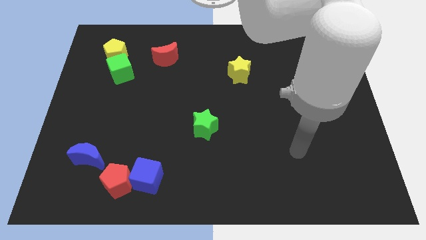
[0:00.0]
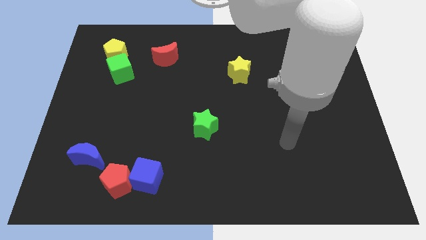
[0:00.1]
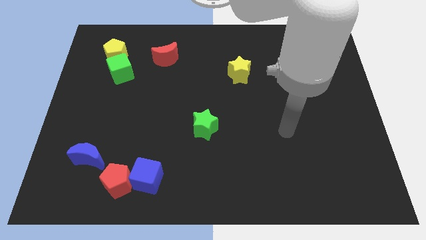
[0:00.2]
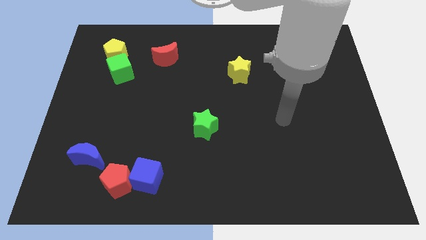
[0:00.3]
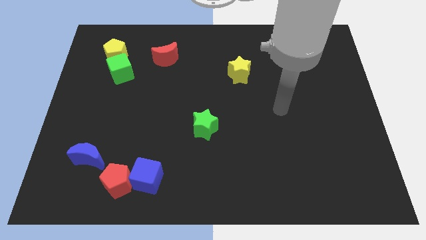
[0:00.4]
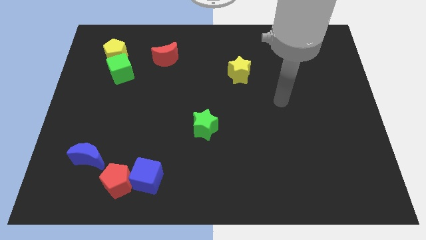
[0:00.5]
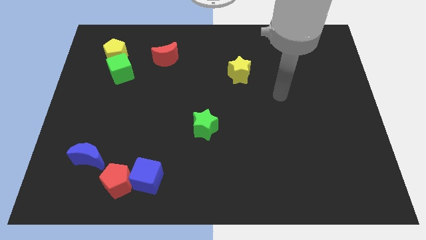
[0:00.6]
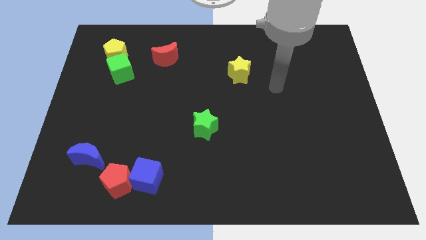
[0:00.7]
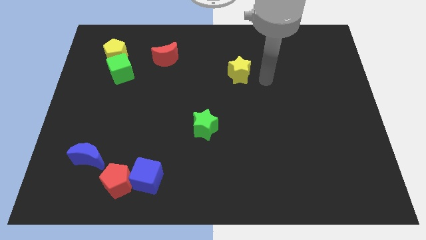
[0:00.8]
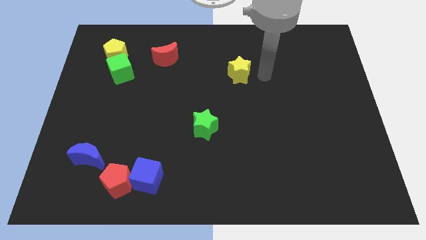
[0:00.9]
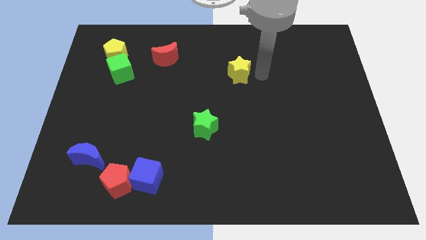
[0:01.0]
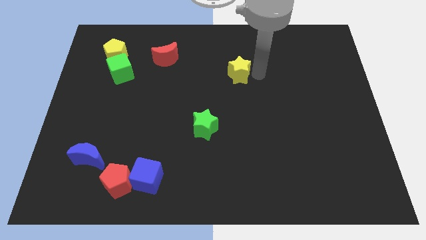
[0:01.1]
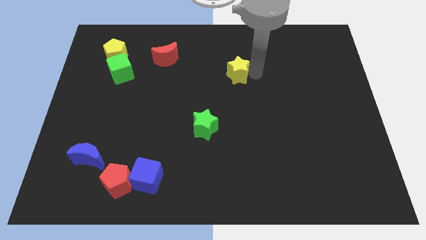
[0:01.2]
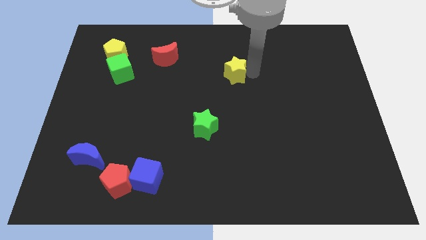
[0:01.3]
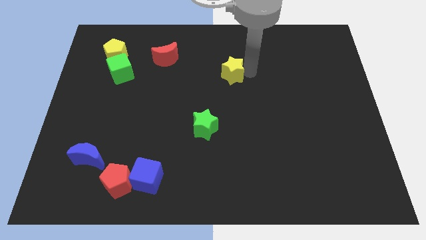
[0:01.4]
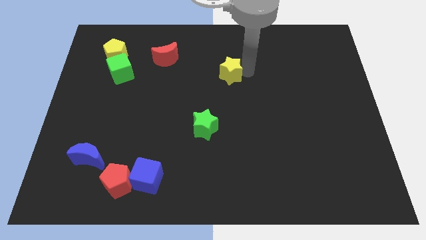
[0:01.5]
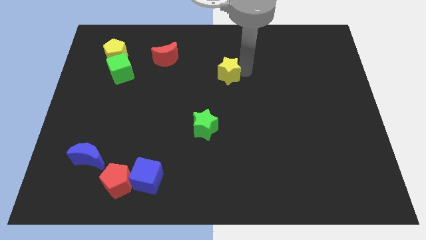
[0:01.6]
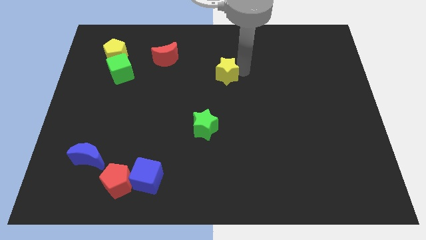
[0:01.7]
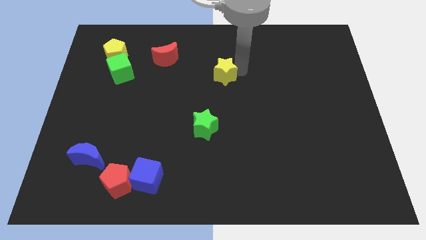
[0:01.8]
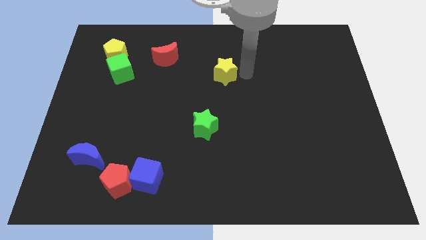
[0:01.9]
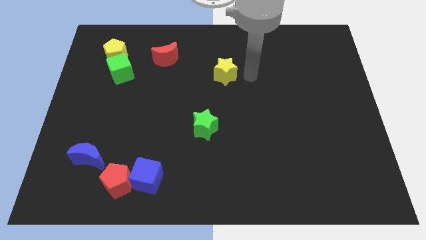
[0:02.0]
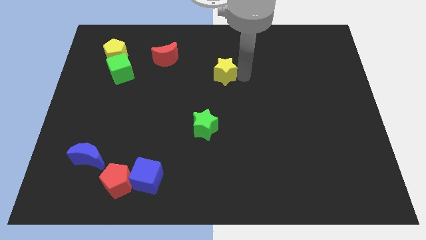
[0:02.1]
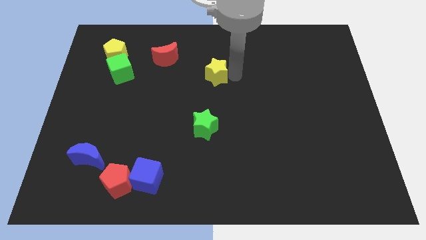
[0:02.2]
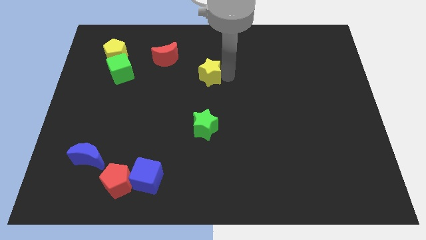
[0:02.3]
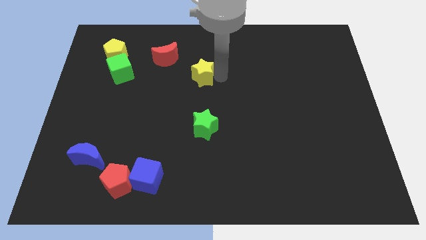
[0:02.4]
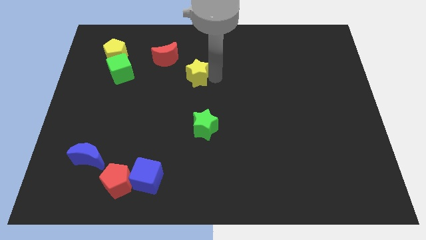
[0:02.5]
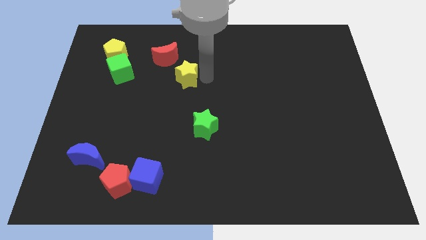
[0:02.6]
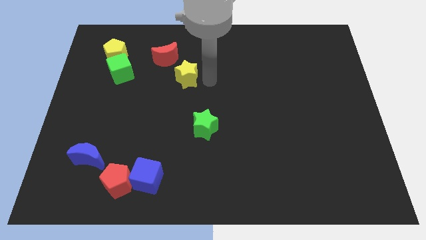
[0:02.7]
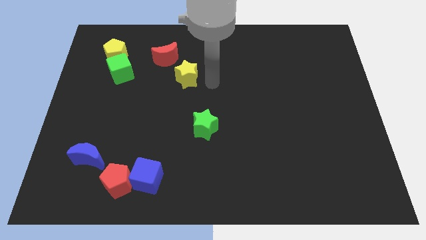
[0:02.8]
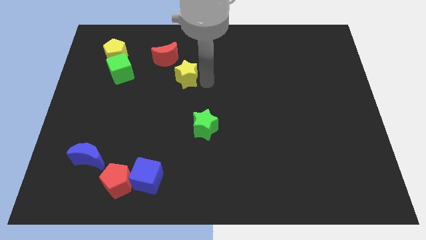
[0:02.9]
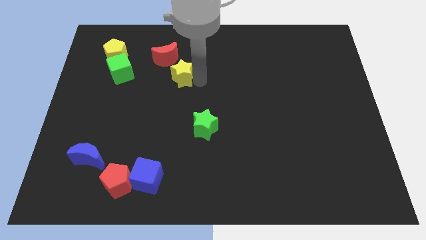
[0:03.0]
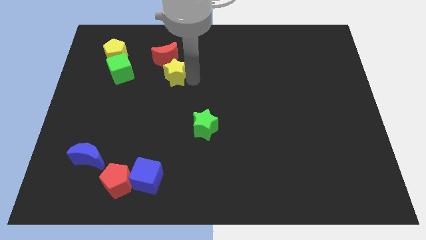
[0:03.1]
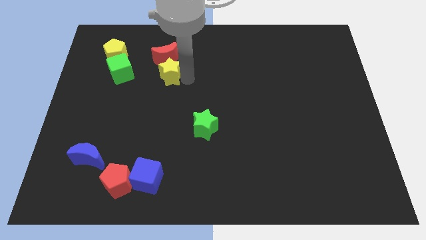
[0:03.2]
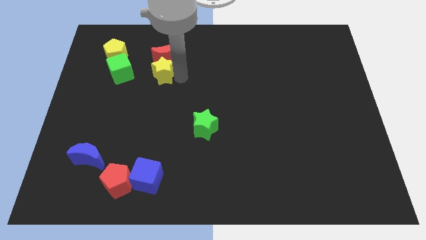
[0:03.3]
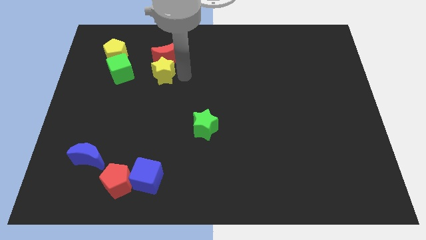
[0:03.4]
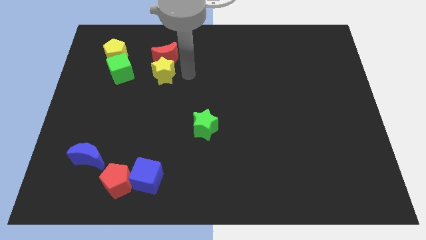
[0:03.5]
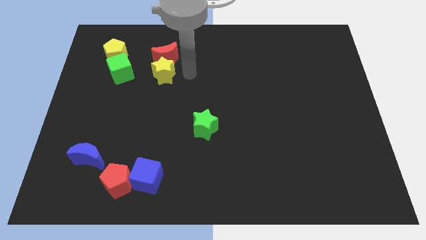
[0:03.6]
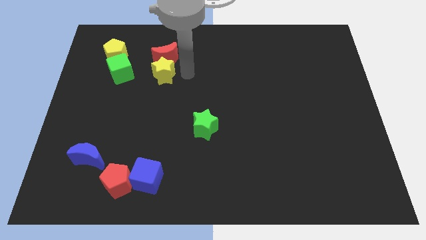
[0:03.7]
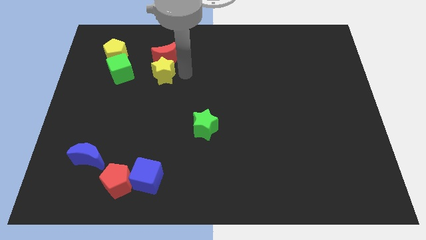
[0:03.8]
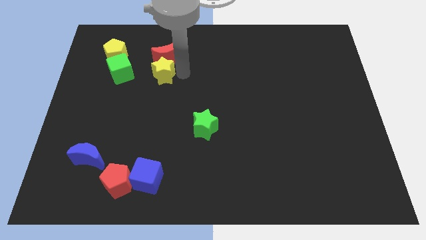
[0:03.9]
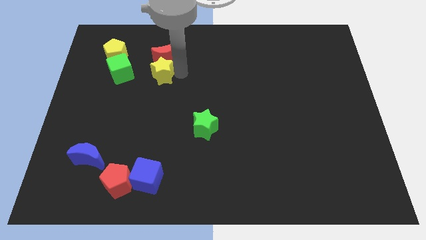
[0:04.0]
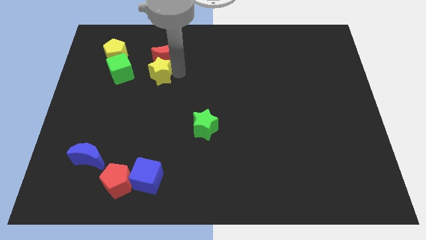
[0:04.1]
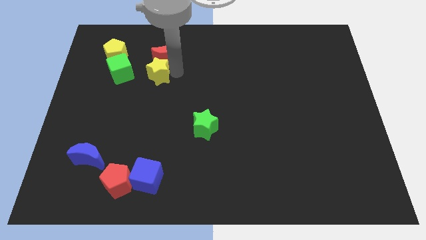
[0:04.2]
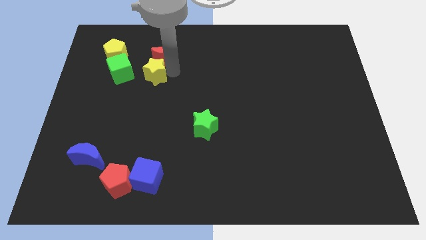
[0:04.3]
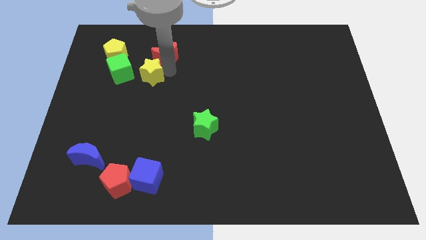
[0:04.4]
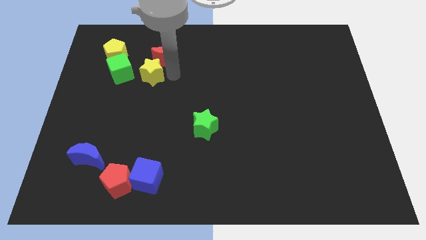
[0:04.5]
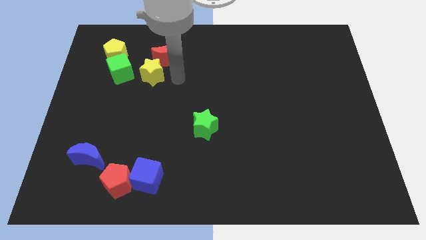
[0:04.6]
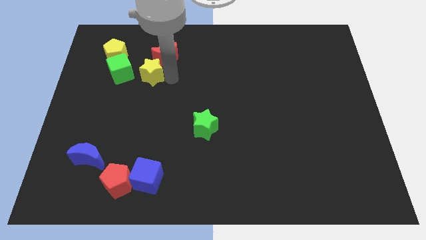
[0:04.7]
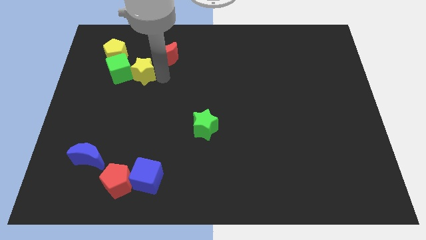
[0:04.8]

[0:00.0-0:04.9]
slide the yellow star close to the green cube

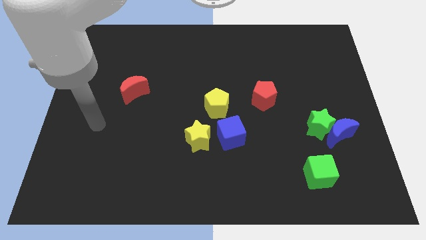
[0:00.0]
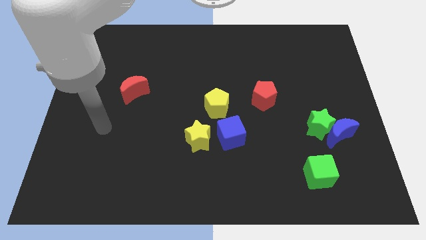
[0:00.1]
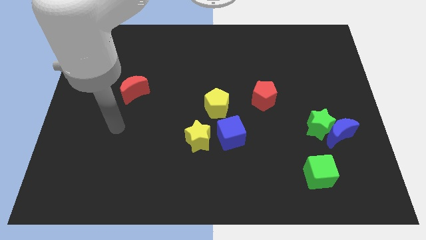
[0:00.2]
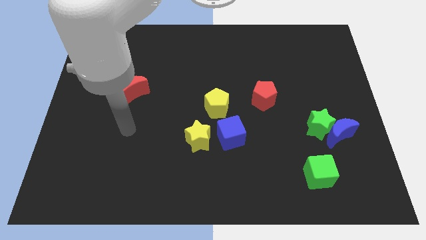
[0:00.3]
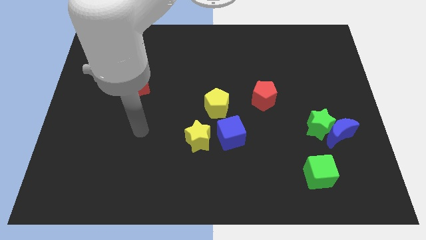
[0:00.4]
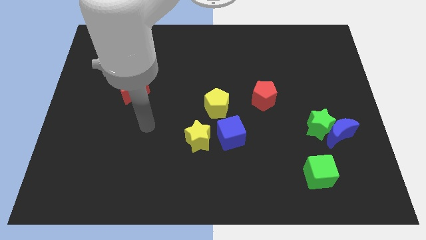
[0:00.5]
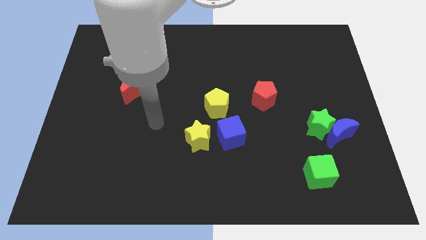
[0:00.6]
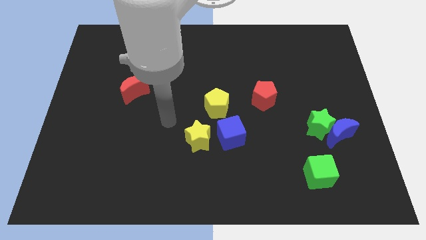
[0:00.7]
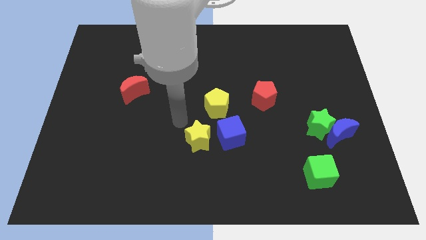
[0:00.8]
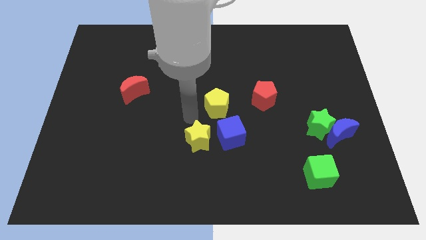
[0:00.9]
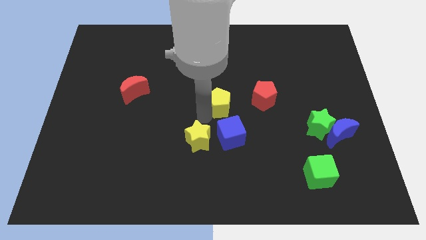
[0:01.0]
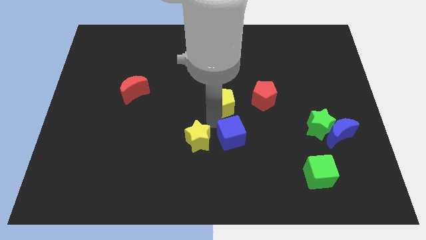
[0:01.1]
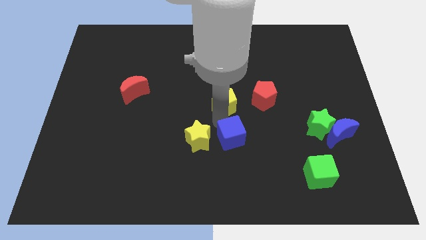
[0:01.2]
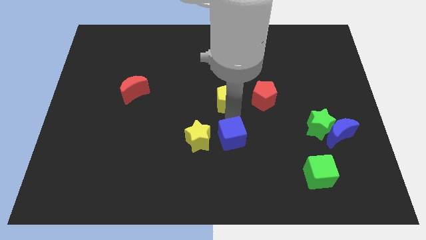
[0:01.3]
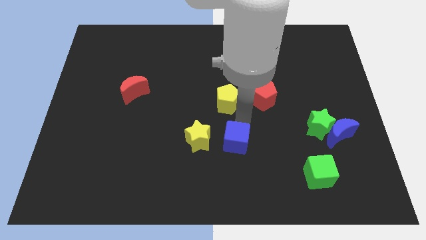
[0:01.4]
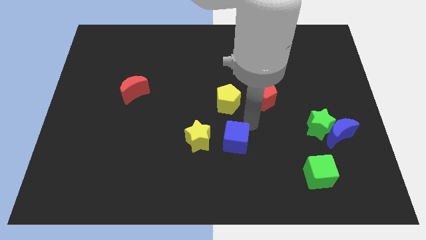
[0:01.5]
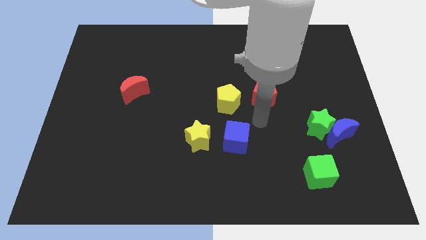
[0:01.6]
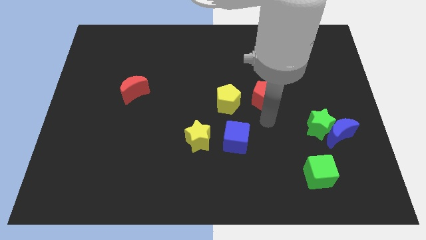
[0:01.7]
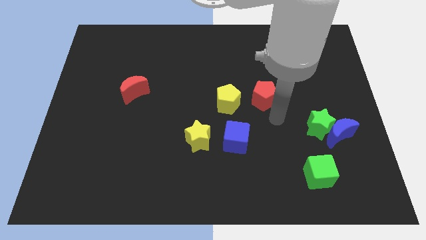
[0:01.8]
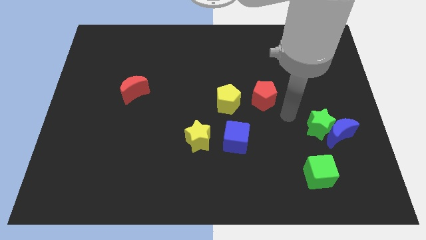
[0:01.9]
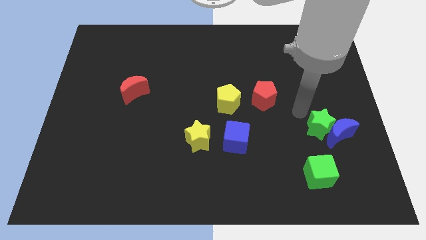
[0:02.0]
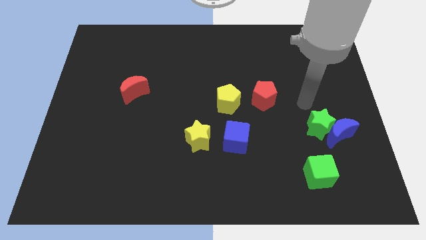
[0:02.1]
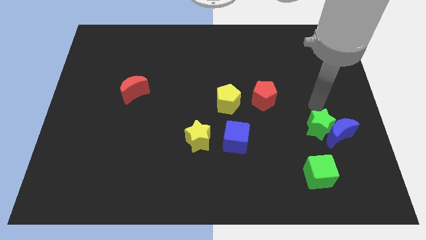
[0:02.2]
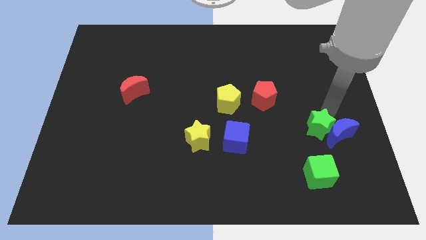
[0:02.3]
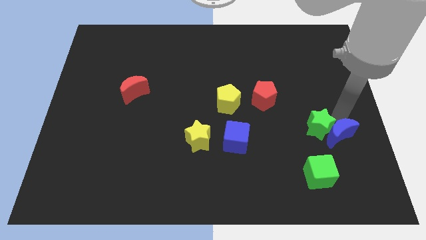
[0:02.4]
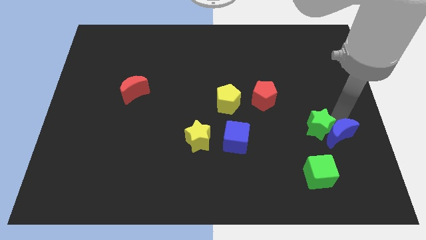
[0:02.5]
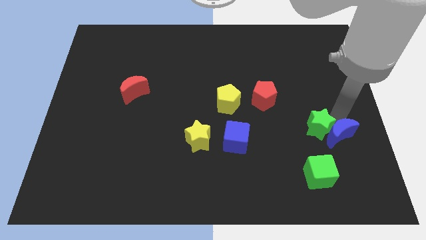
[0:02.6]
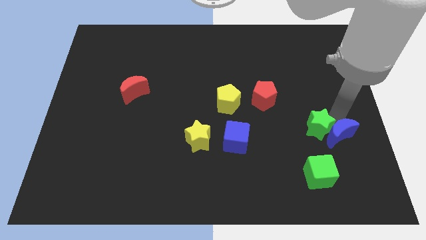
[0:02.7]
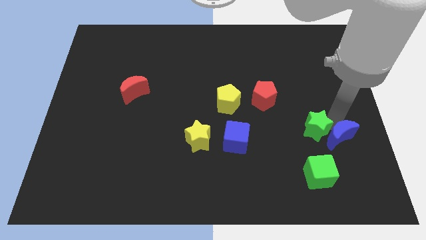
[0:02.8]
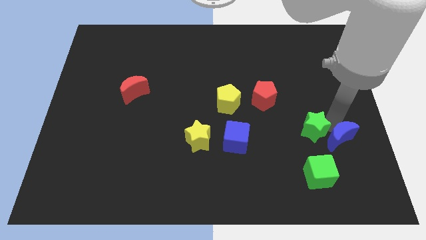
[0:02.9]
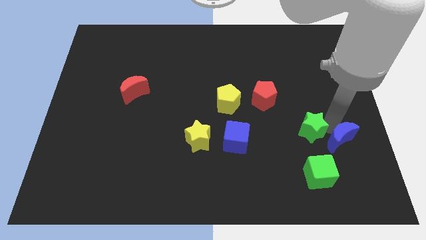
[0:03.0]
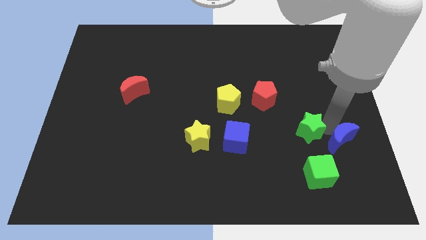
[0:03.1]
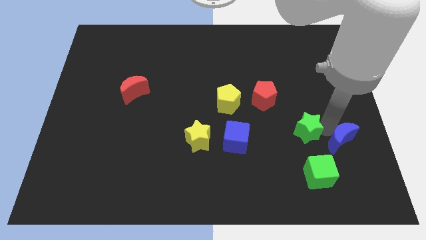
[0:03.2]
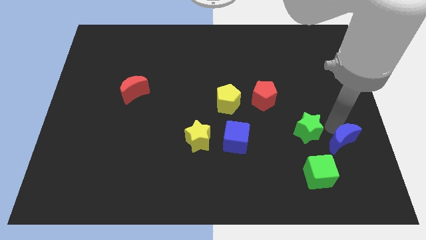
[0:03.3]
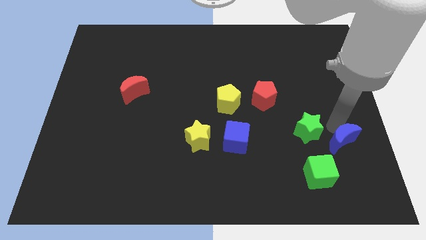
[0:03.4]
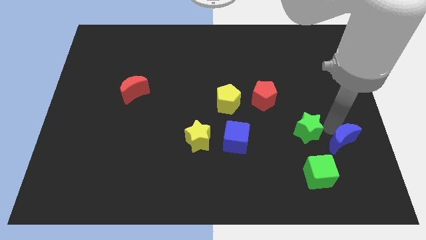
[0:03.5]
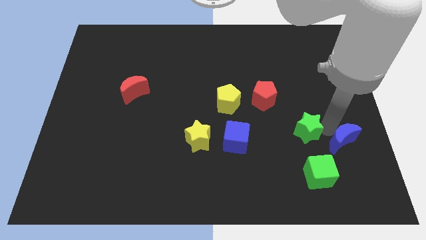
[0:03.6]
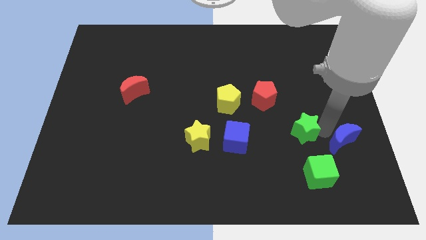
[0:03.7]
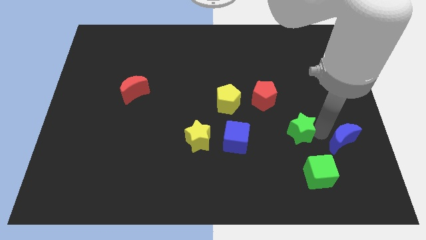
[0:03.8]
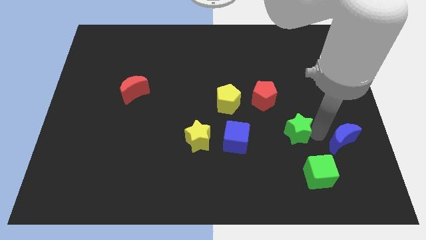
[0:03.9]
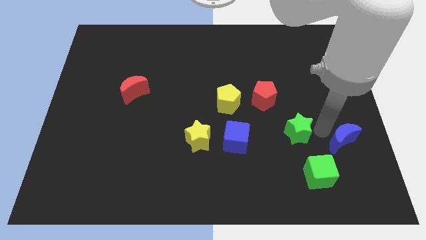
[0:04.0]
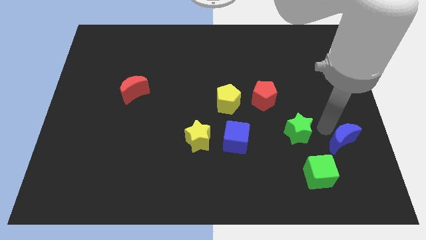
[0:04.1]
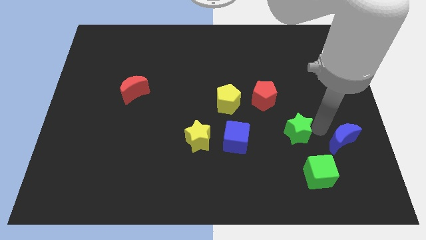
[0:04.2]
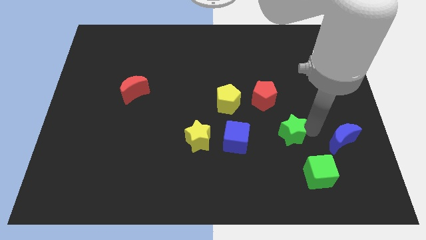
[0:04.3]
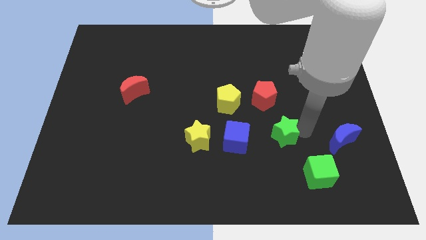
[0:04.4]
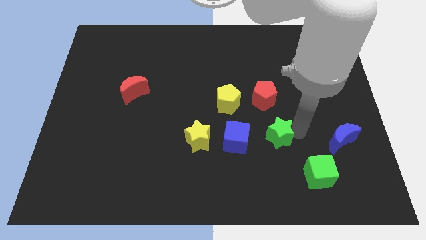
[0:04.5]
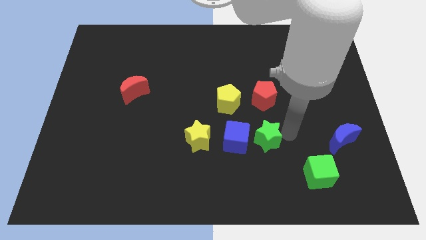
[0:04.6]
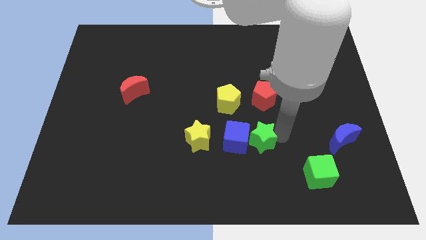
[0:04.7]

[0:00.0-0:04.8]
put the green star towards the blue cube
